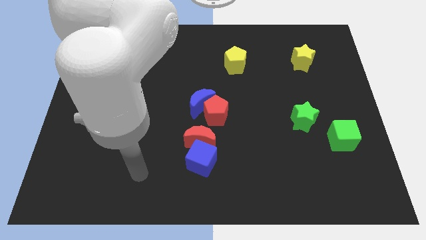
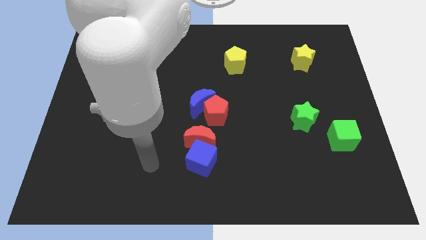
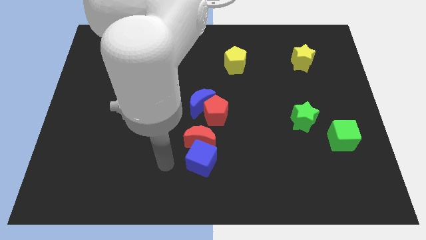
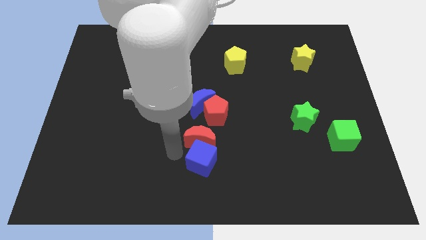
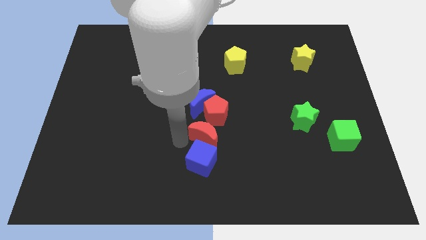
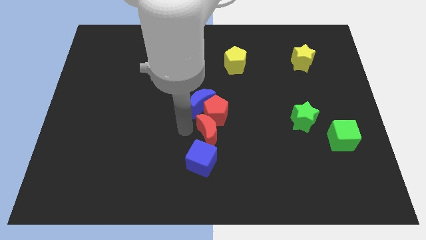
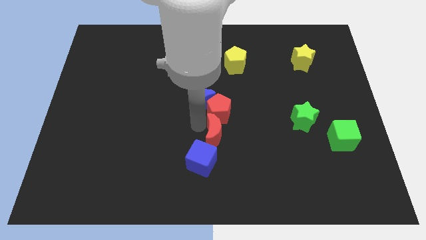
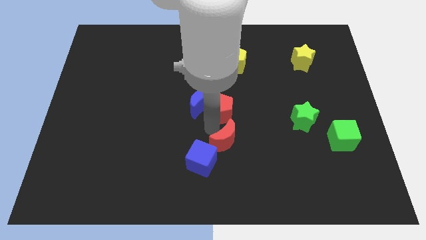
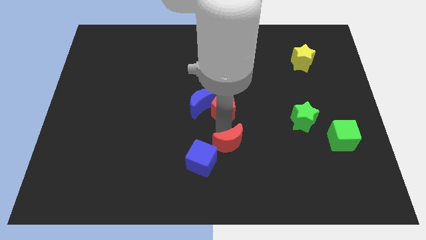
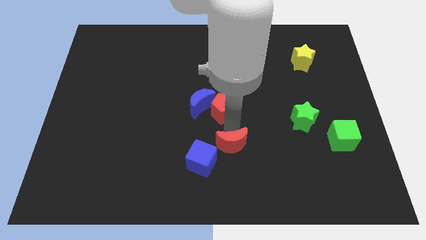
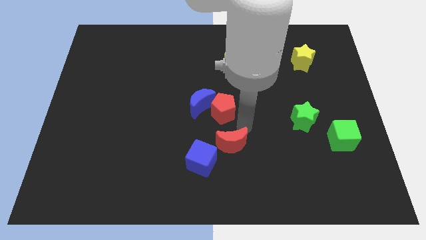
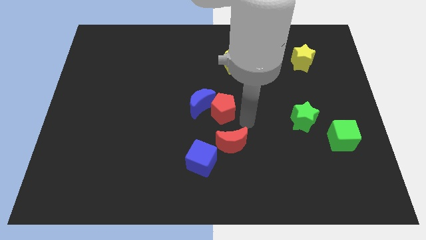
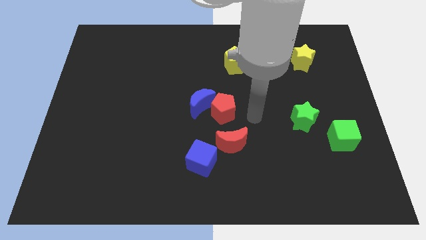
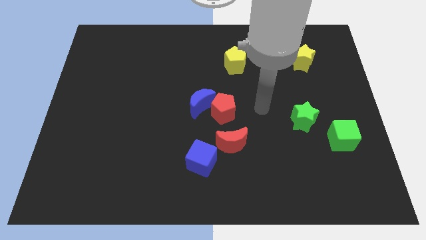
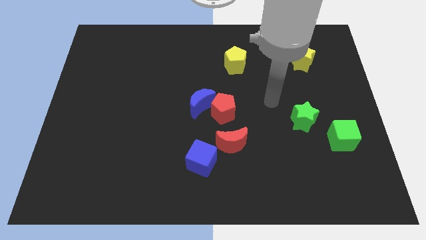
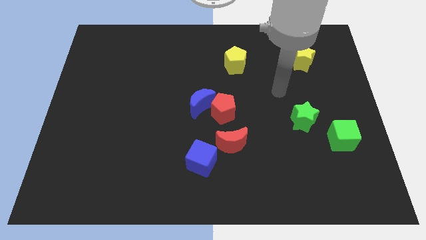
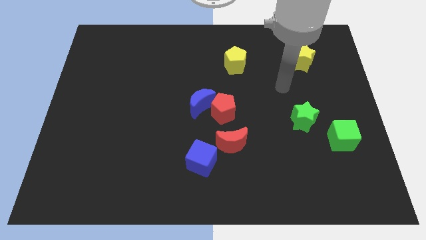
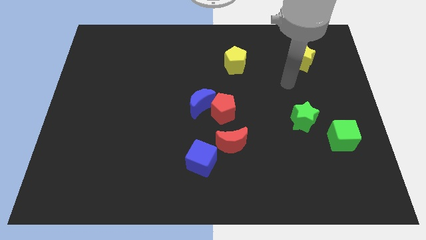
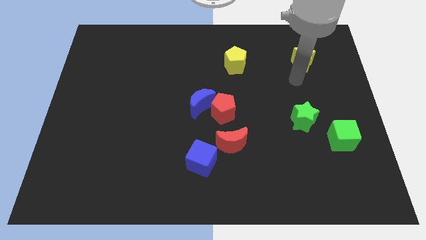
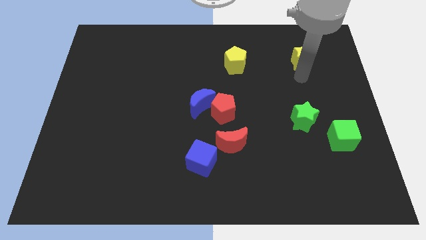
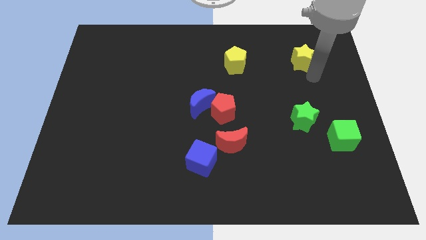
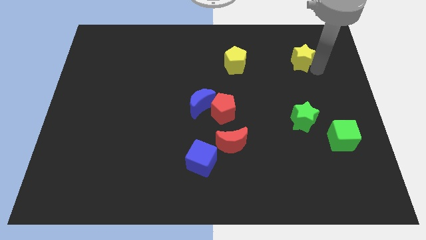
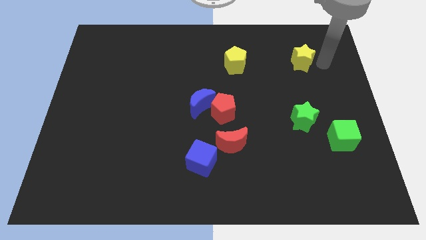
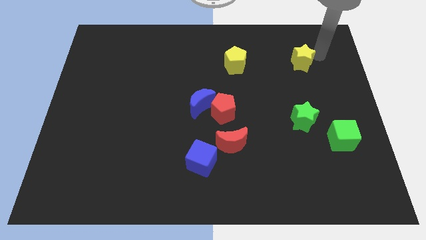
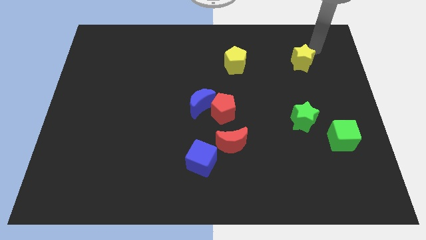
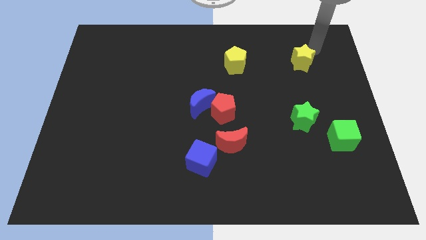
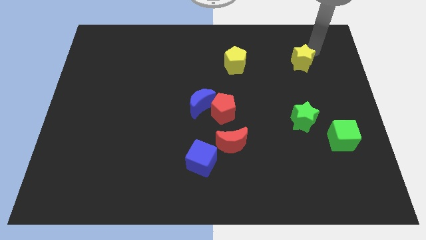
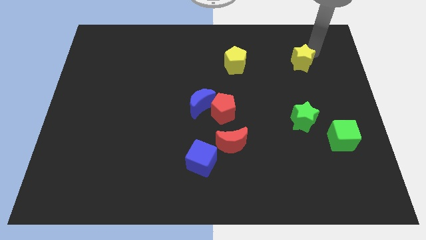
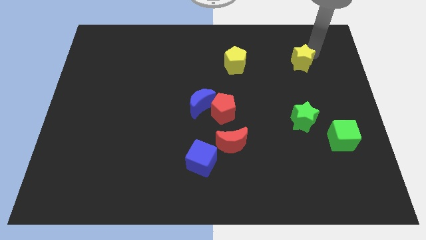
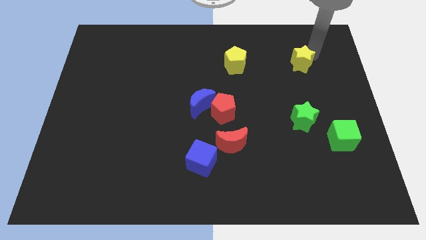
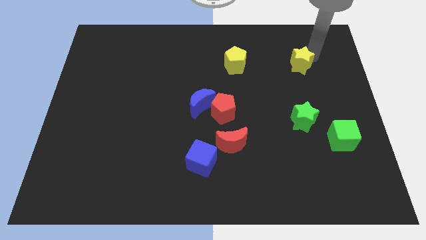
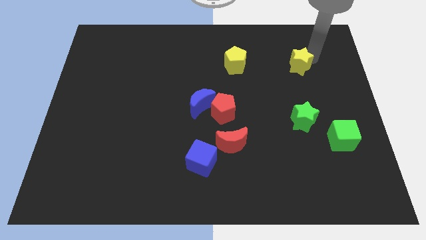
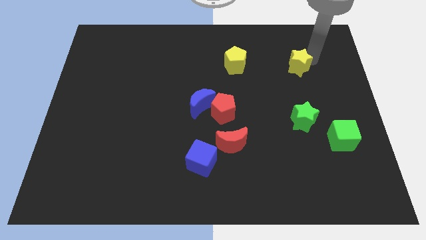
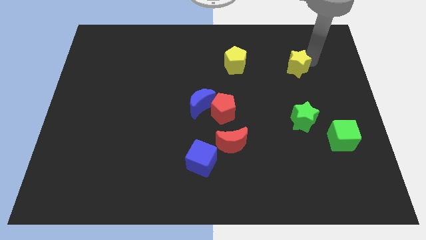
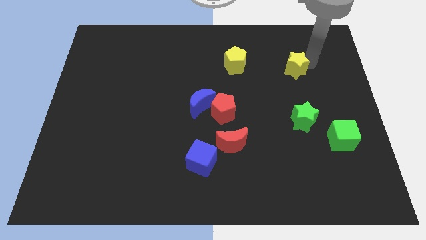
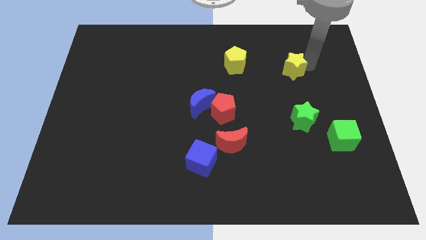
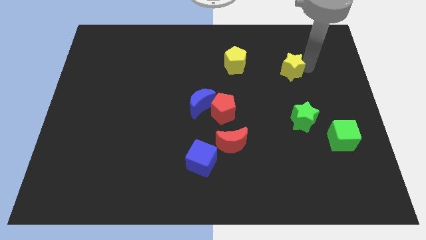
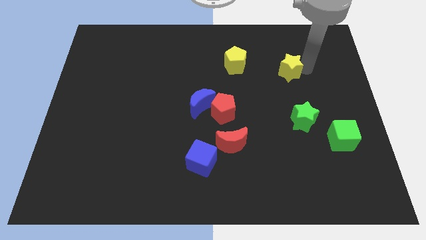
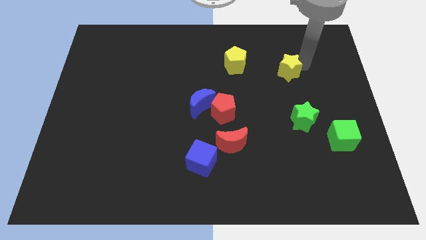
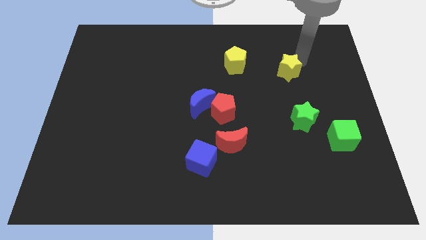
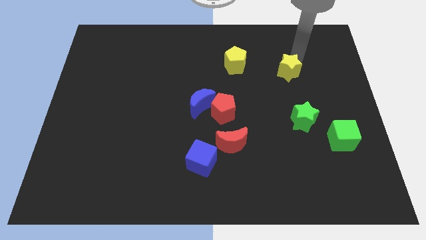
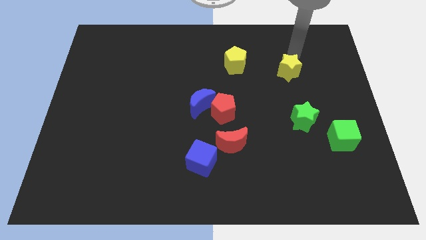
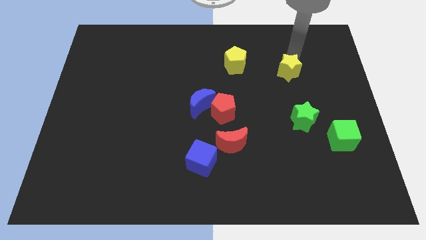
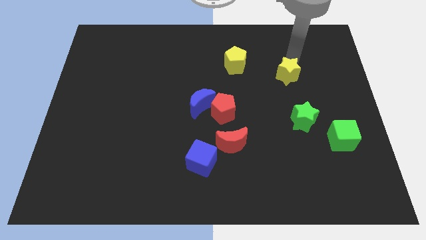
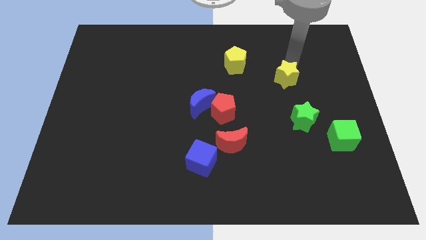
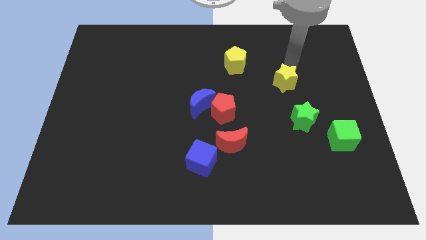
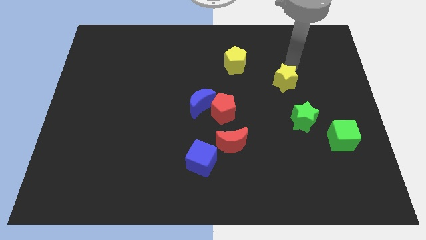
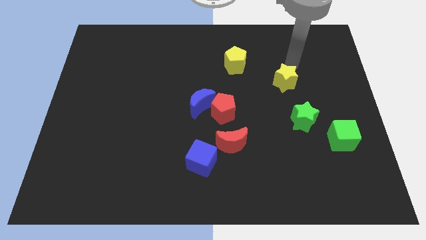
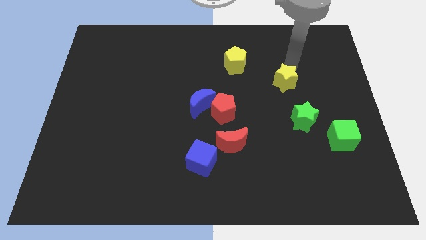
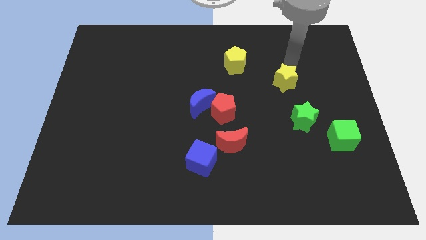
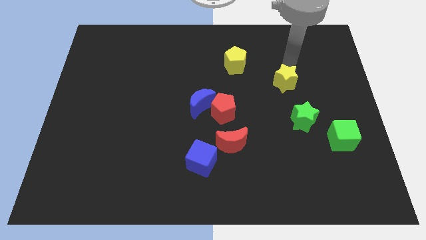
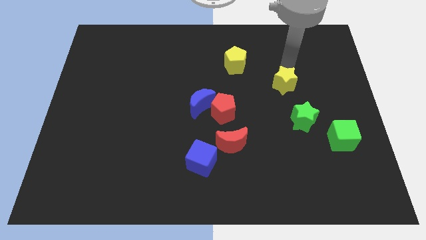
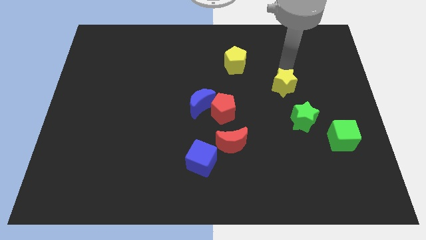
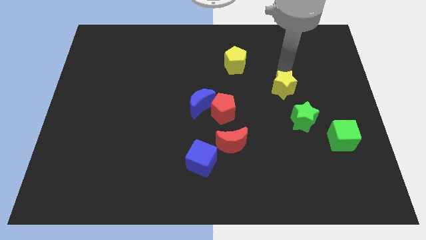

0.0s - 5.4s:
push the yellow star to the top left side of the green star

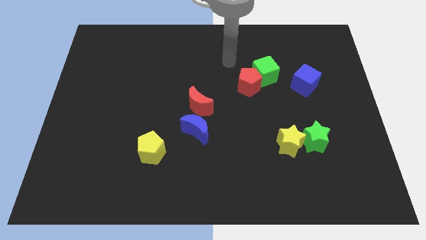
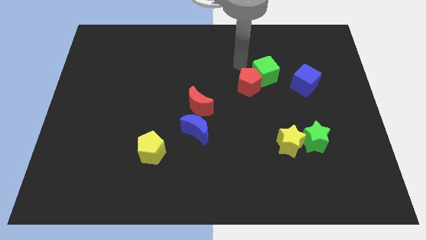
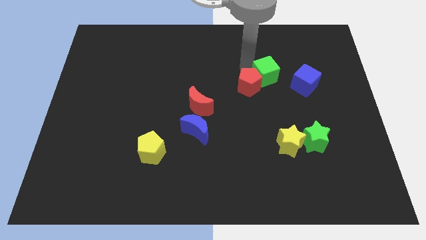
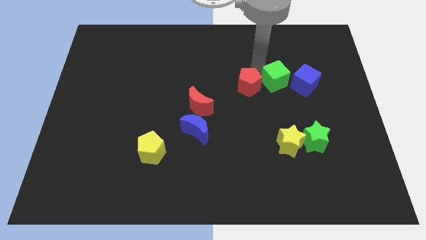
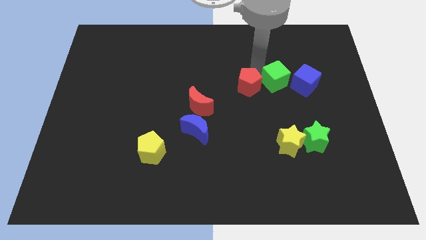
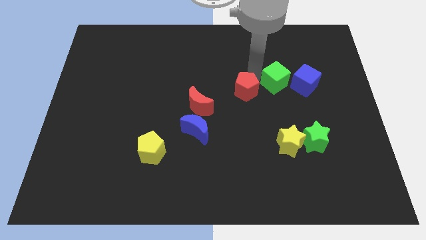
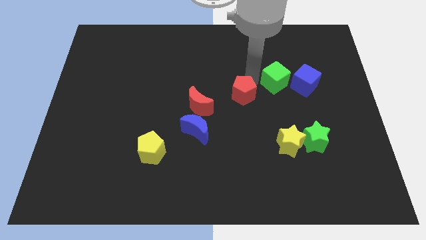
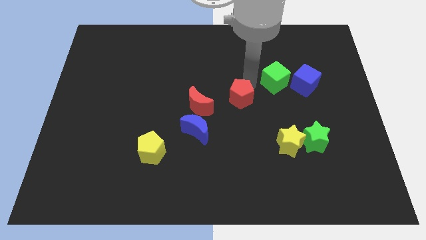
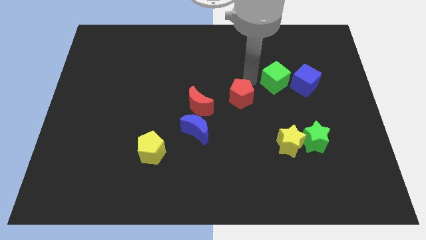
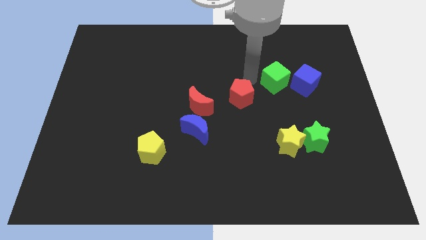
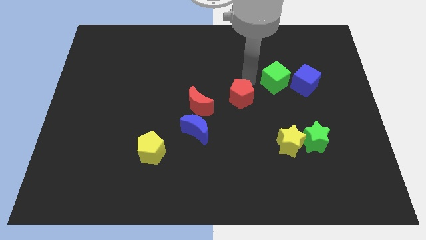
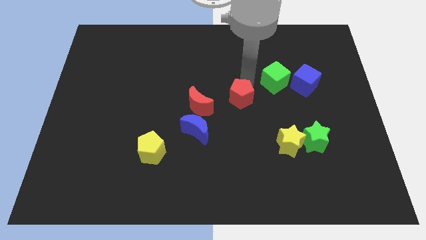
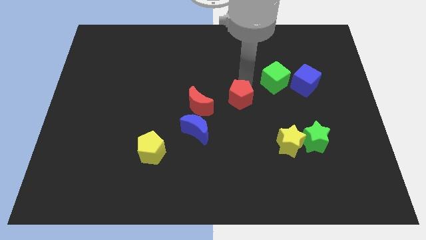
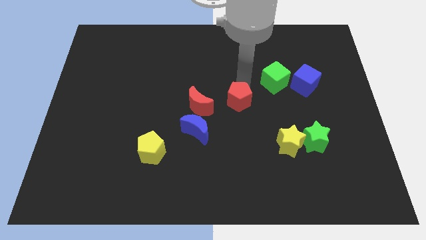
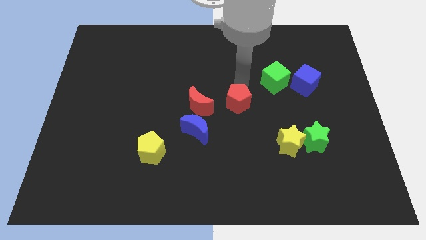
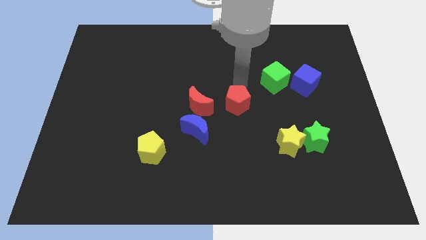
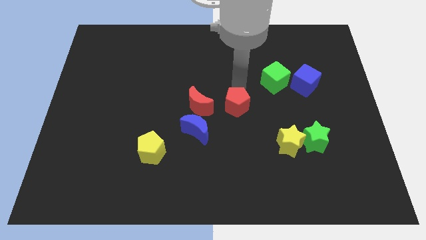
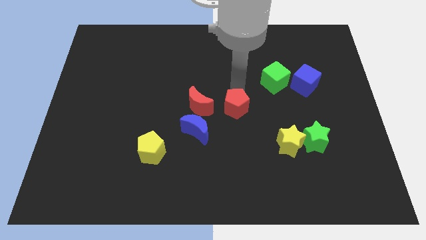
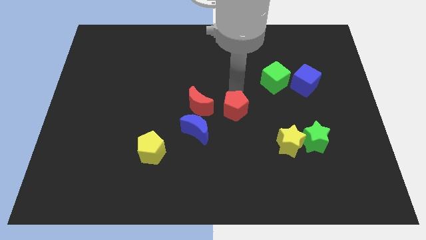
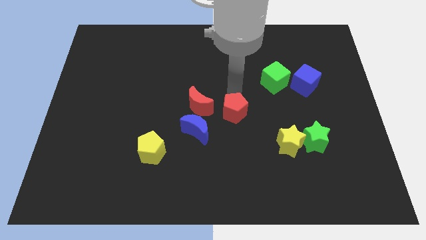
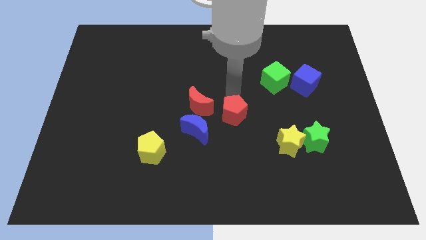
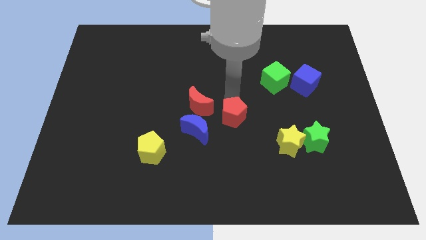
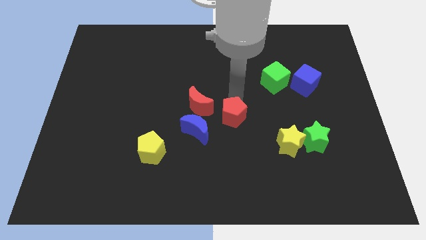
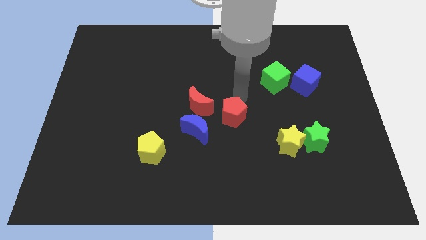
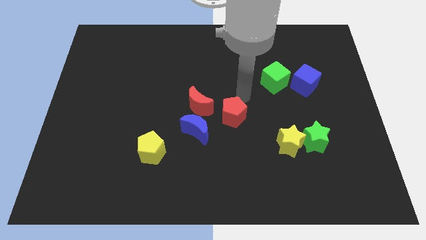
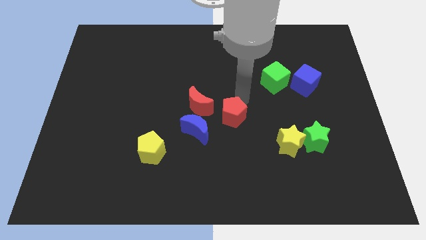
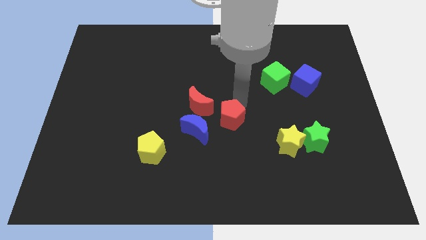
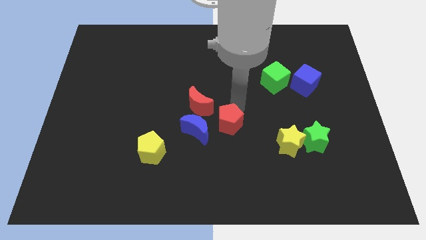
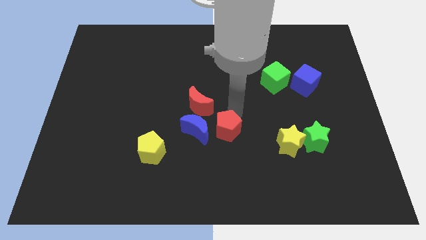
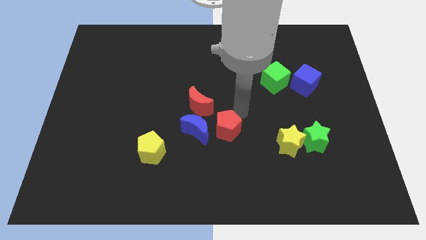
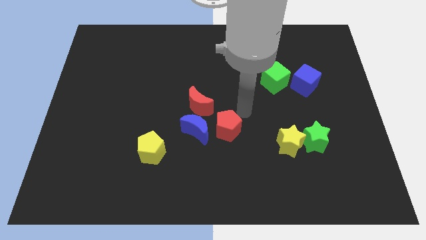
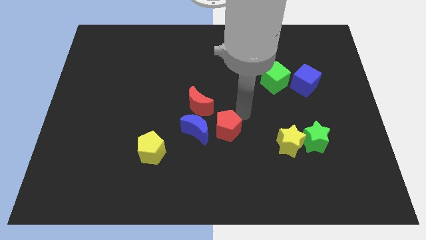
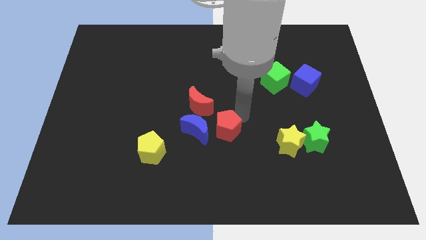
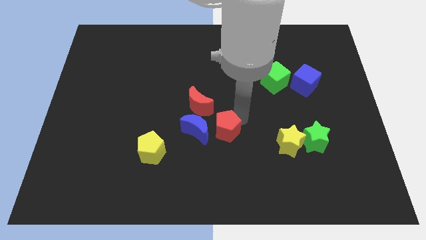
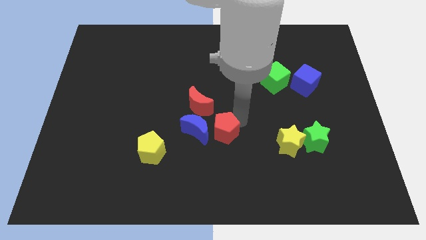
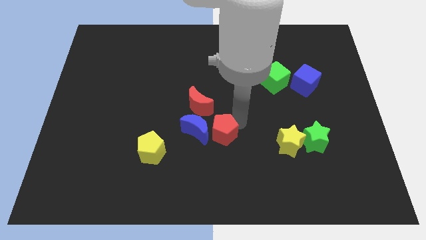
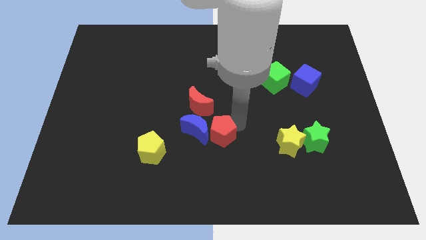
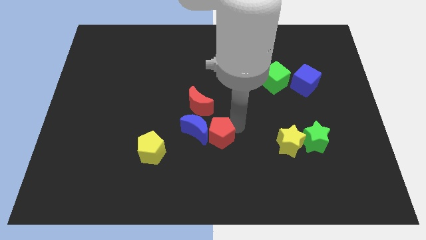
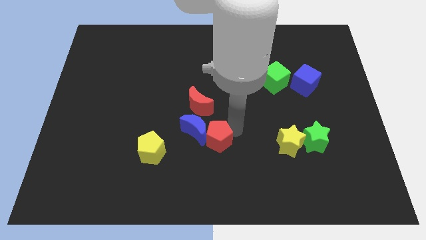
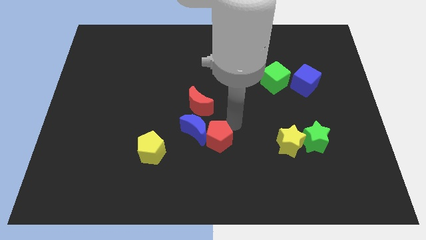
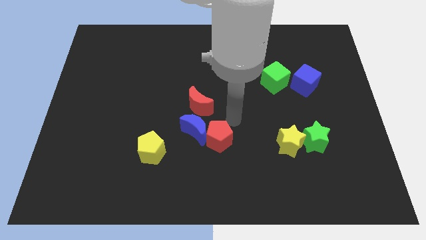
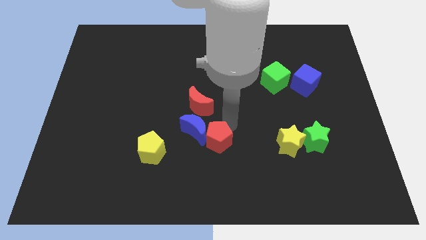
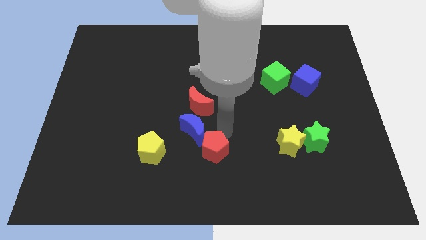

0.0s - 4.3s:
move the red pentagon to the bottom of the blue moon
